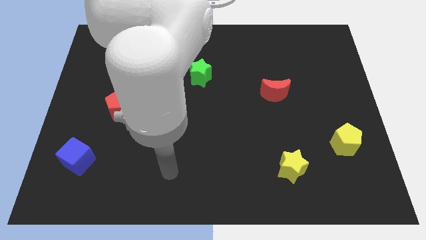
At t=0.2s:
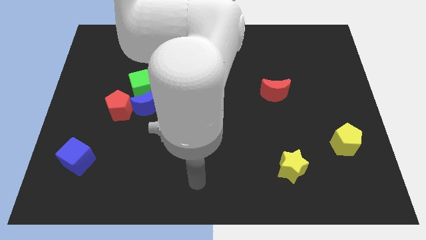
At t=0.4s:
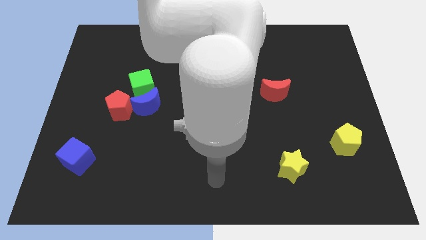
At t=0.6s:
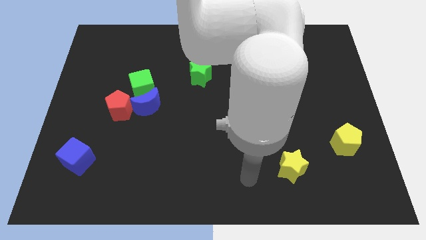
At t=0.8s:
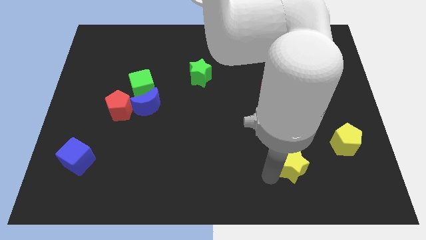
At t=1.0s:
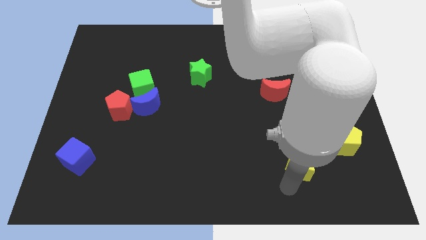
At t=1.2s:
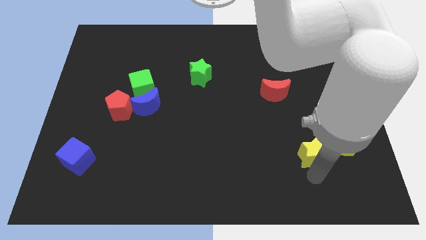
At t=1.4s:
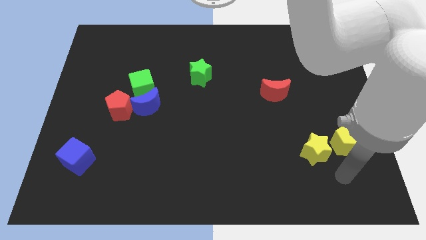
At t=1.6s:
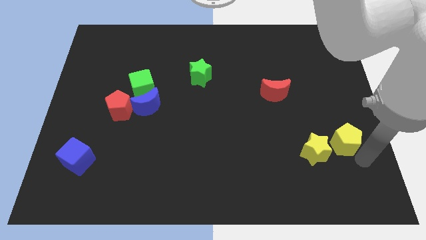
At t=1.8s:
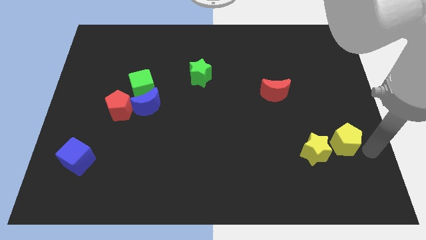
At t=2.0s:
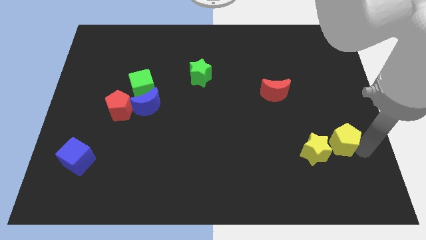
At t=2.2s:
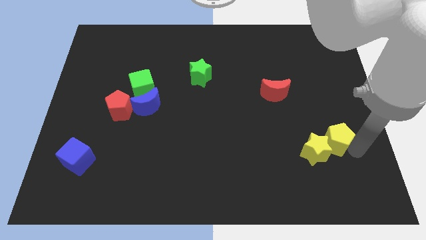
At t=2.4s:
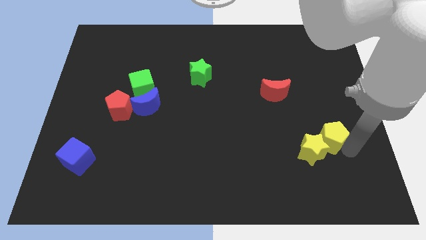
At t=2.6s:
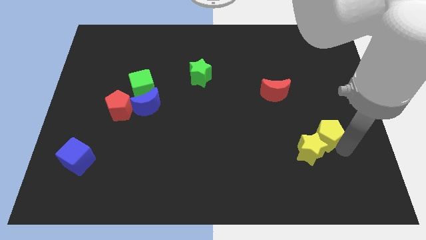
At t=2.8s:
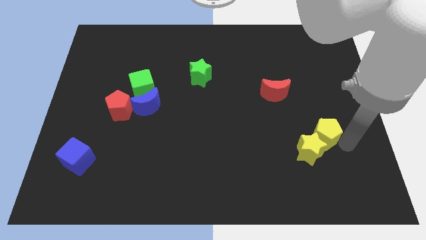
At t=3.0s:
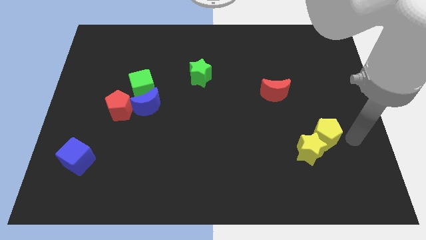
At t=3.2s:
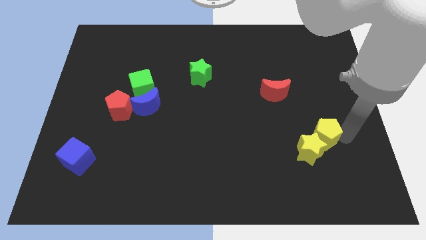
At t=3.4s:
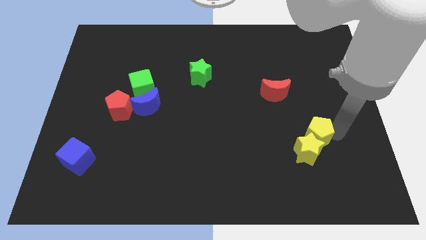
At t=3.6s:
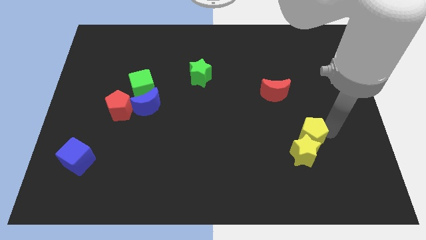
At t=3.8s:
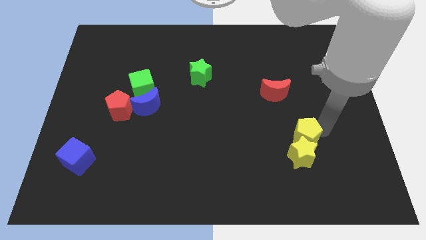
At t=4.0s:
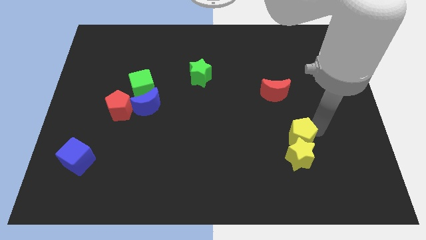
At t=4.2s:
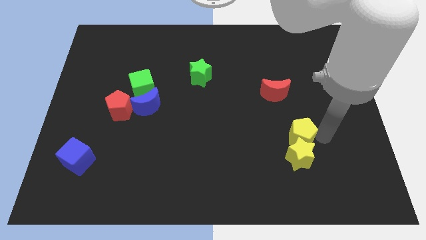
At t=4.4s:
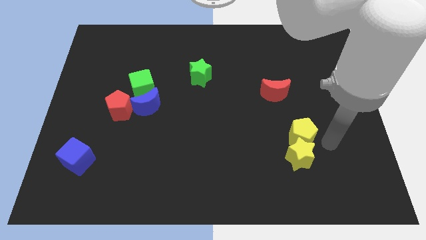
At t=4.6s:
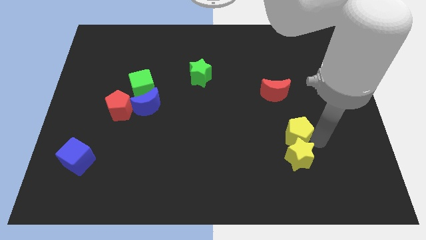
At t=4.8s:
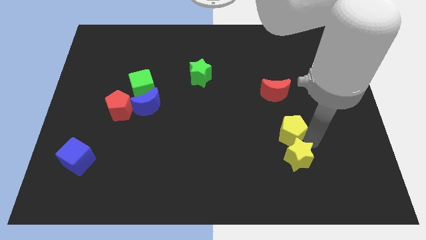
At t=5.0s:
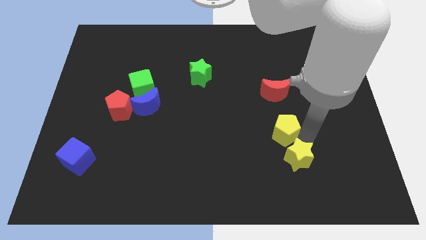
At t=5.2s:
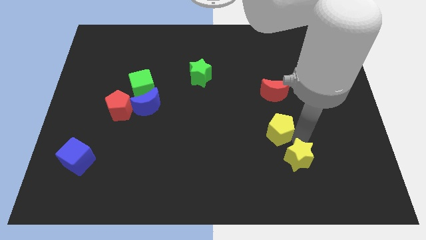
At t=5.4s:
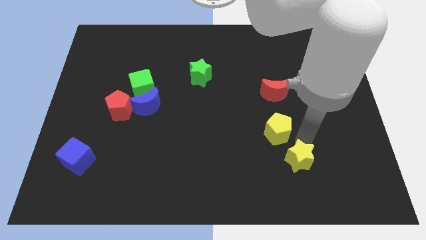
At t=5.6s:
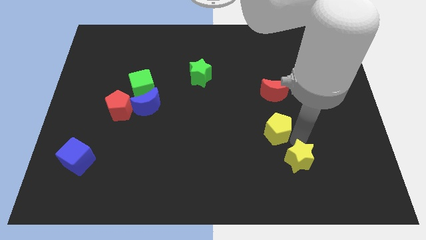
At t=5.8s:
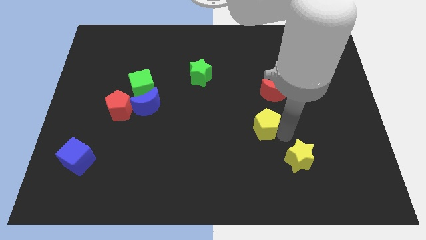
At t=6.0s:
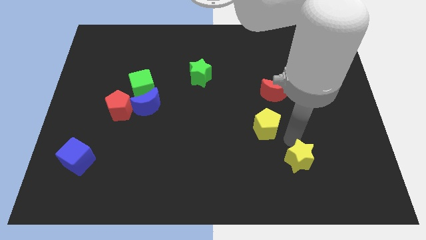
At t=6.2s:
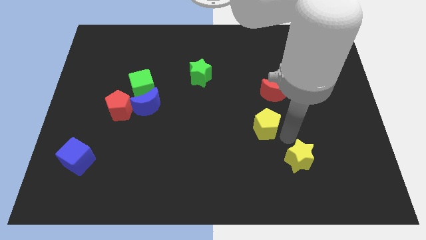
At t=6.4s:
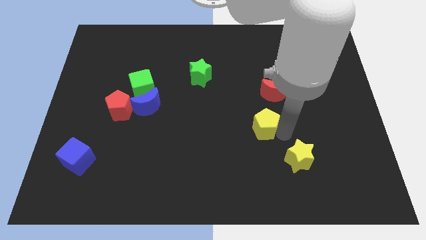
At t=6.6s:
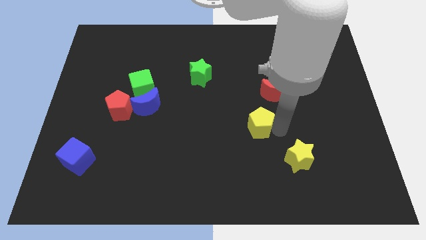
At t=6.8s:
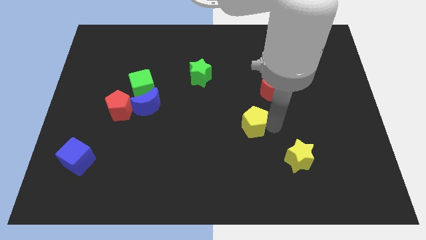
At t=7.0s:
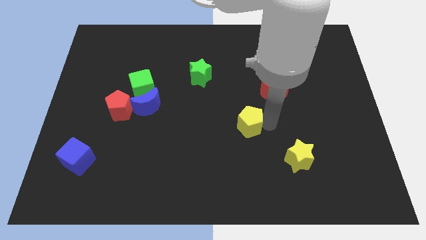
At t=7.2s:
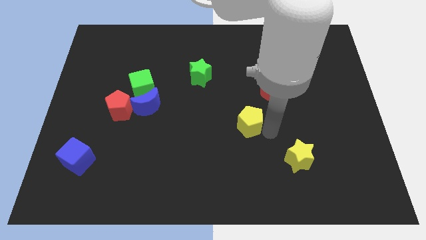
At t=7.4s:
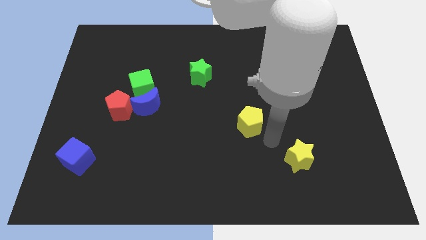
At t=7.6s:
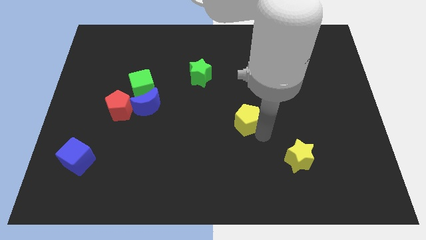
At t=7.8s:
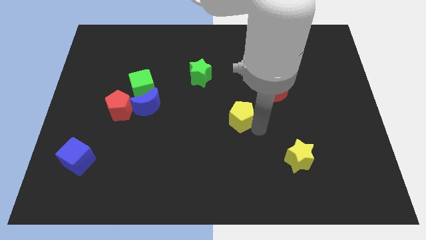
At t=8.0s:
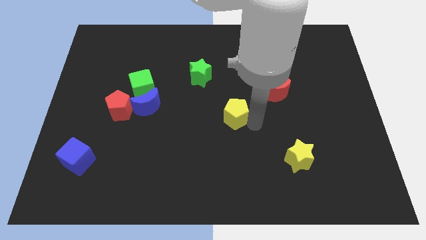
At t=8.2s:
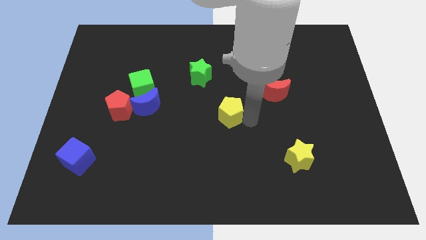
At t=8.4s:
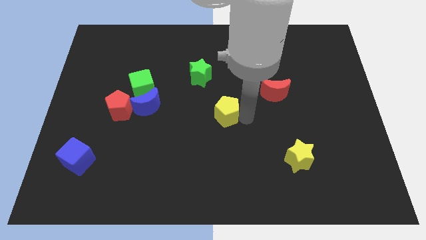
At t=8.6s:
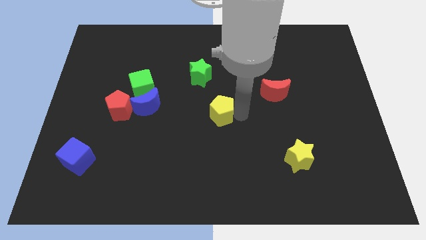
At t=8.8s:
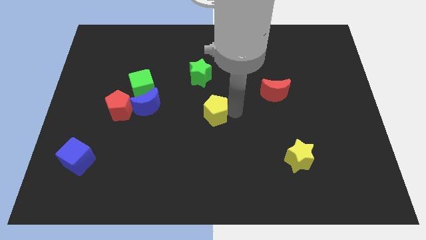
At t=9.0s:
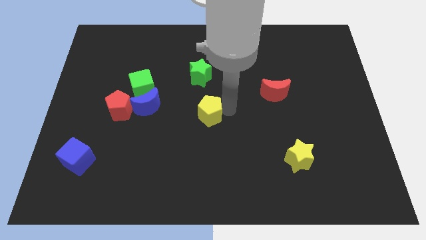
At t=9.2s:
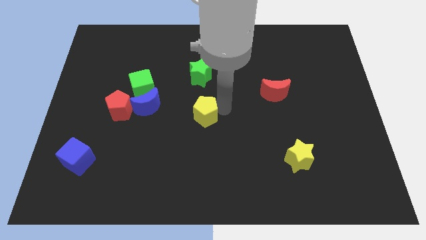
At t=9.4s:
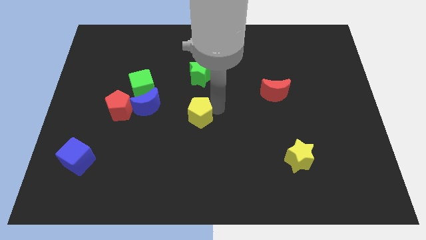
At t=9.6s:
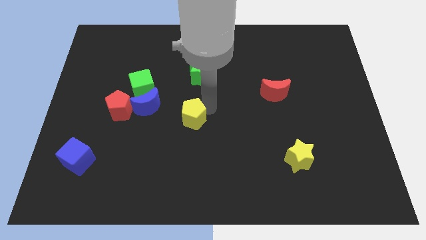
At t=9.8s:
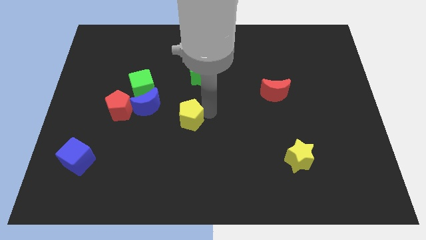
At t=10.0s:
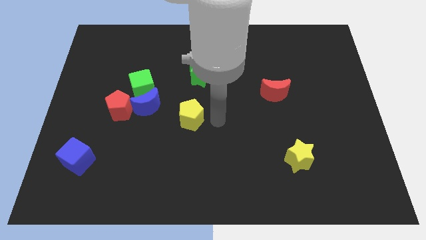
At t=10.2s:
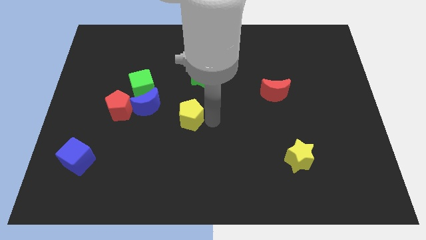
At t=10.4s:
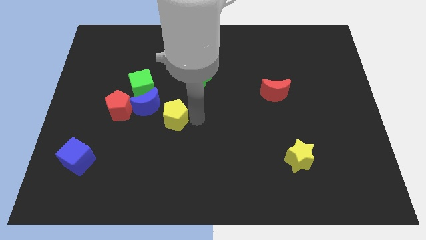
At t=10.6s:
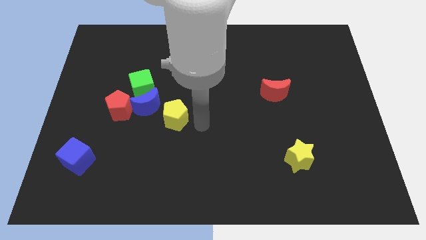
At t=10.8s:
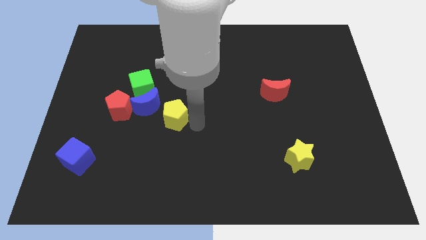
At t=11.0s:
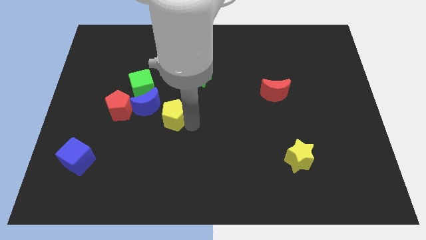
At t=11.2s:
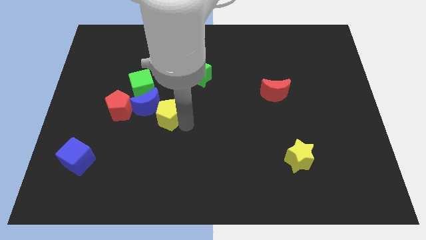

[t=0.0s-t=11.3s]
move the yellow pentagon towards the blue moon

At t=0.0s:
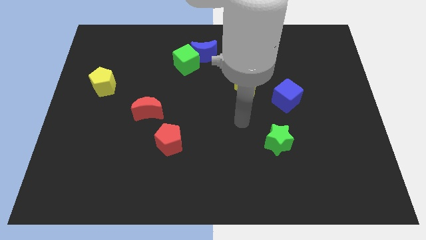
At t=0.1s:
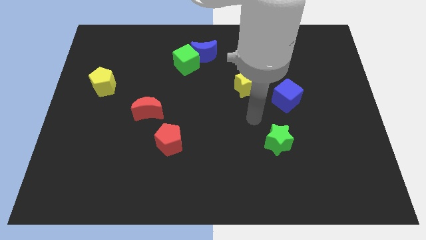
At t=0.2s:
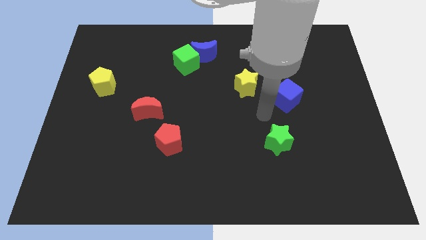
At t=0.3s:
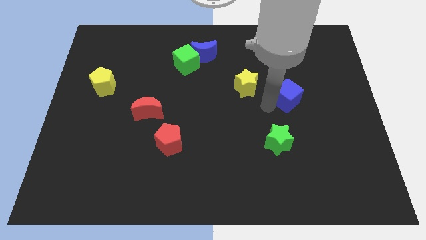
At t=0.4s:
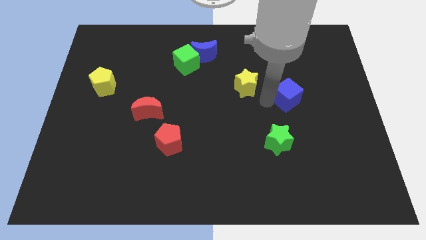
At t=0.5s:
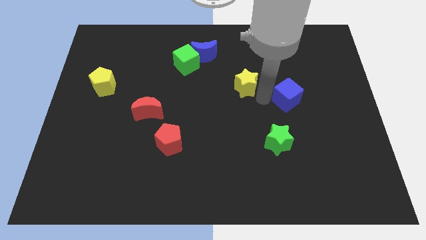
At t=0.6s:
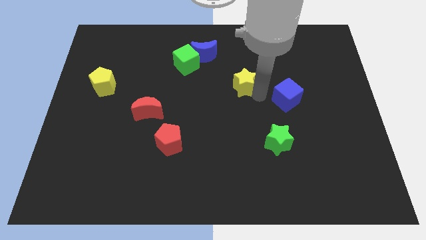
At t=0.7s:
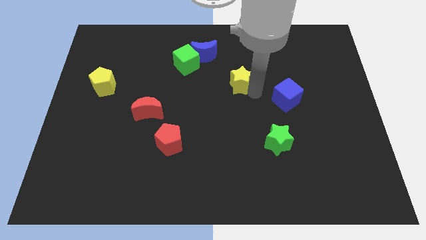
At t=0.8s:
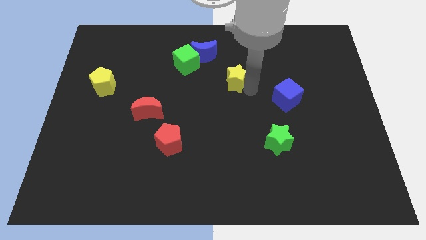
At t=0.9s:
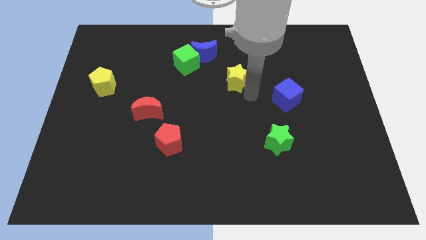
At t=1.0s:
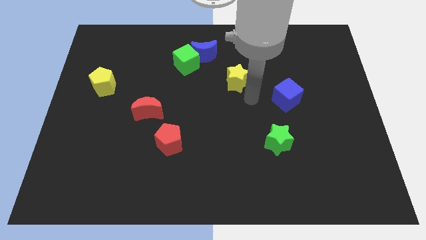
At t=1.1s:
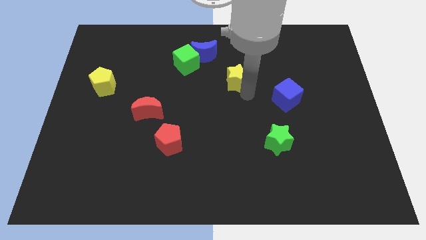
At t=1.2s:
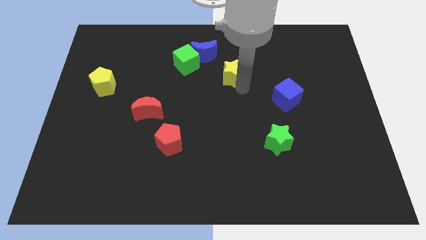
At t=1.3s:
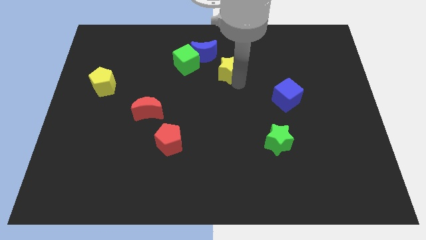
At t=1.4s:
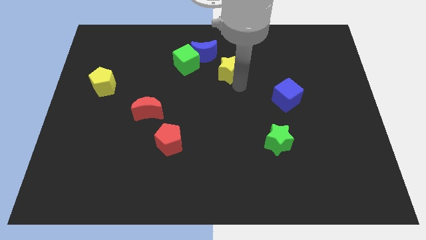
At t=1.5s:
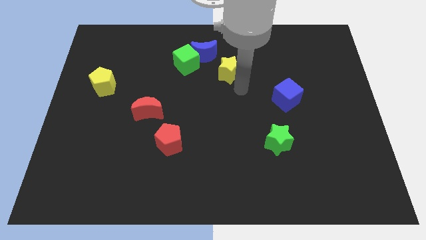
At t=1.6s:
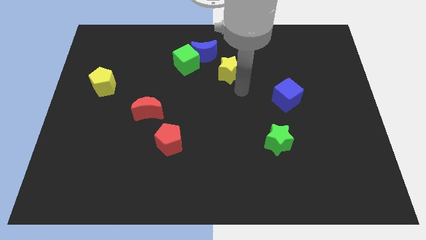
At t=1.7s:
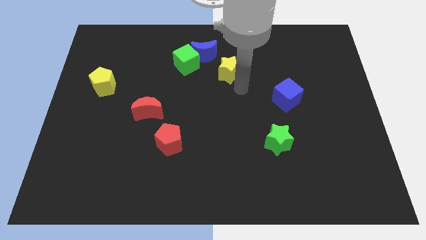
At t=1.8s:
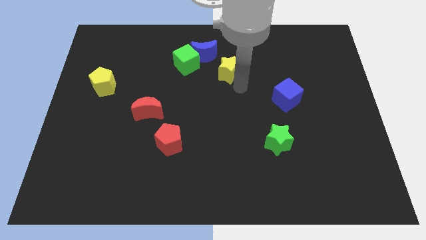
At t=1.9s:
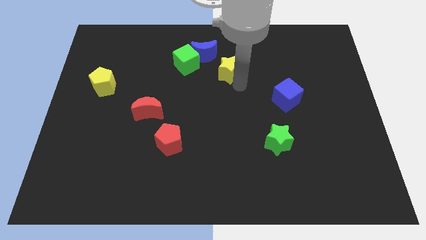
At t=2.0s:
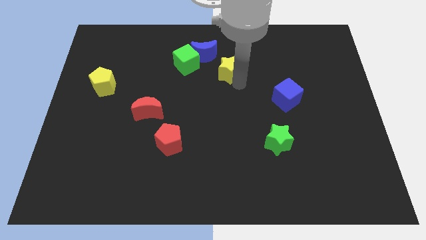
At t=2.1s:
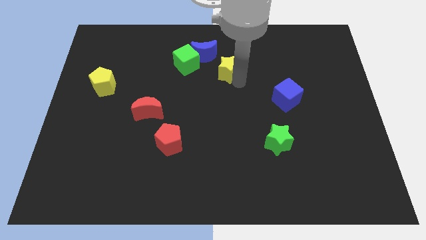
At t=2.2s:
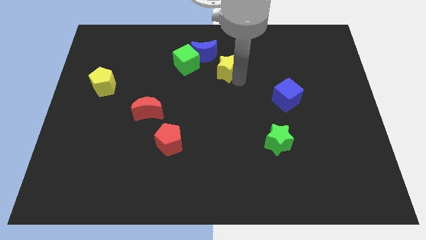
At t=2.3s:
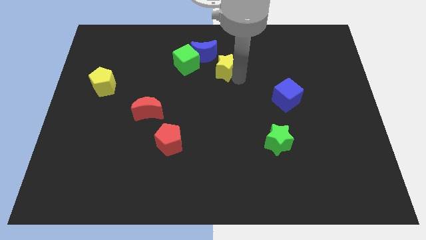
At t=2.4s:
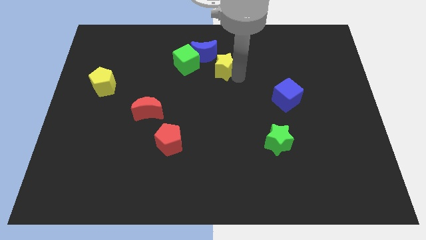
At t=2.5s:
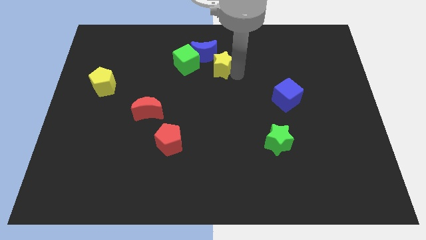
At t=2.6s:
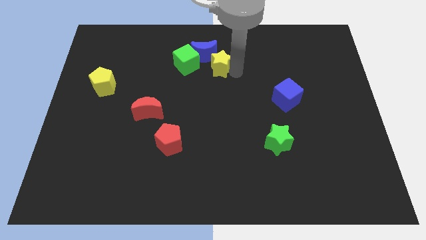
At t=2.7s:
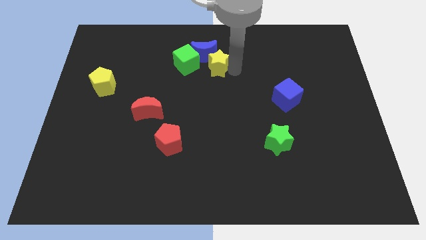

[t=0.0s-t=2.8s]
put the yellow star next to the blue moon
